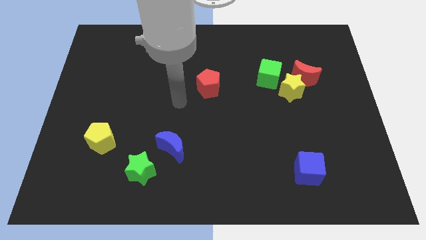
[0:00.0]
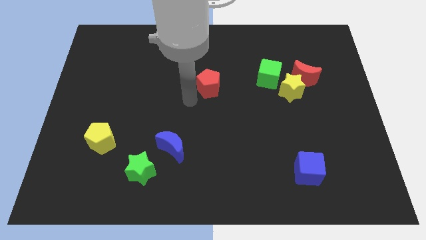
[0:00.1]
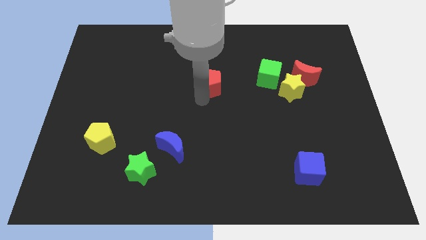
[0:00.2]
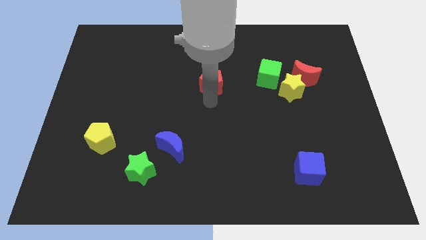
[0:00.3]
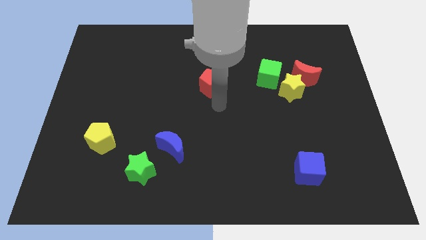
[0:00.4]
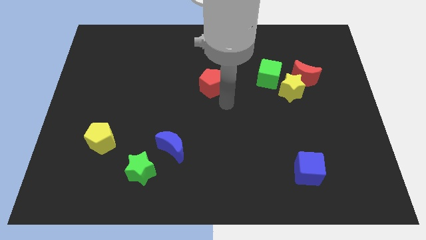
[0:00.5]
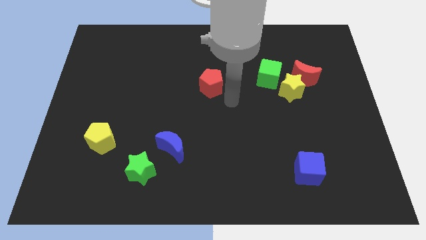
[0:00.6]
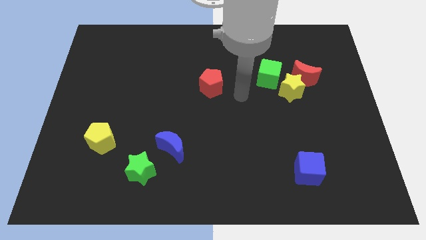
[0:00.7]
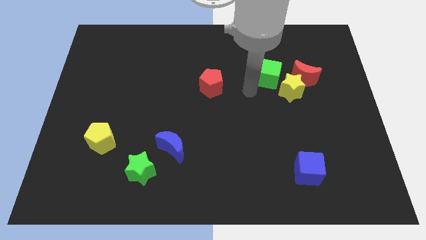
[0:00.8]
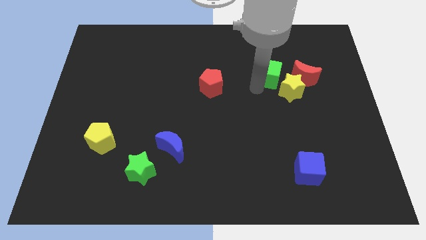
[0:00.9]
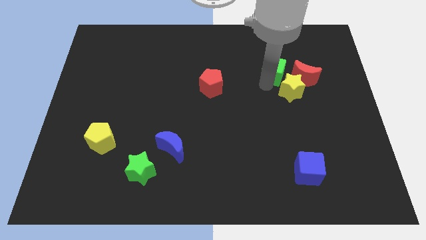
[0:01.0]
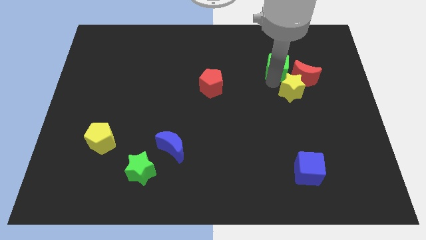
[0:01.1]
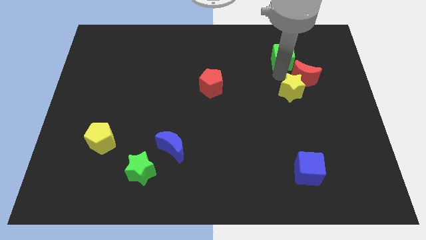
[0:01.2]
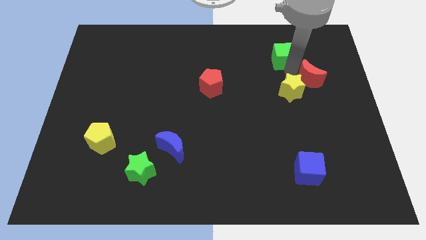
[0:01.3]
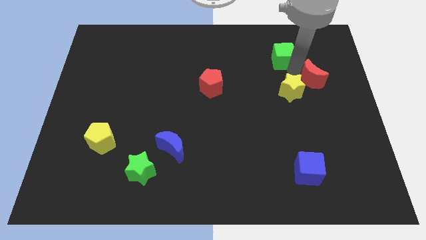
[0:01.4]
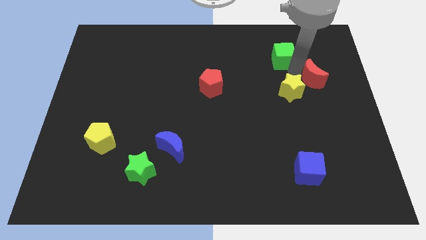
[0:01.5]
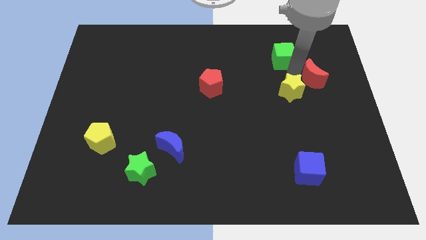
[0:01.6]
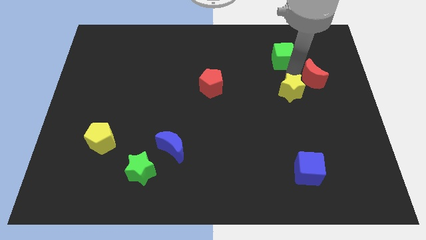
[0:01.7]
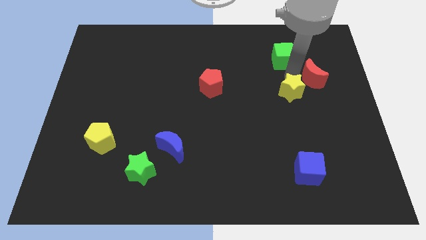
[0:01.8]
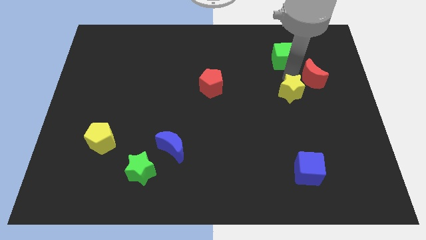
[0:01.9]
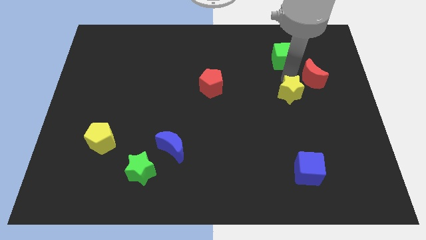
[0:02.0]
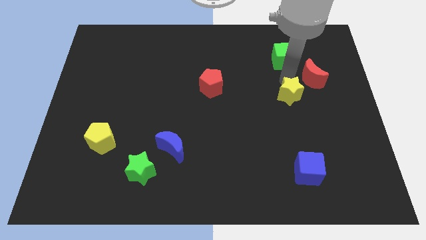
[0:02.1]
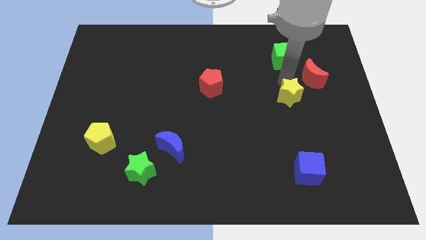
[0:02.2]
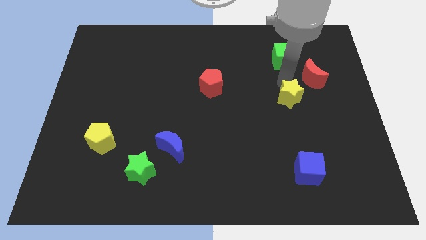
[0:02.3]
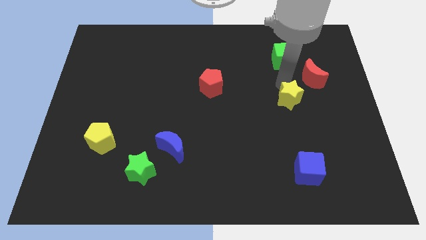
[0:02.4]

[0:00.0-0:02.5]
pull the yellow star apart from the red moon and green cube

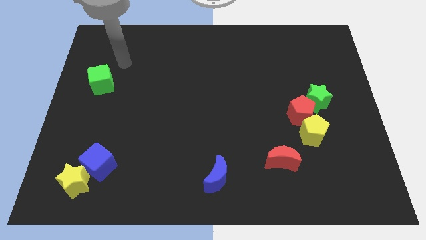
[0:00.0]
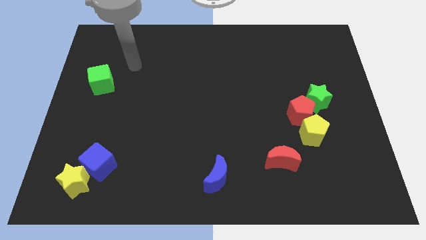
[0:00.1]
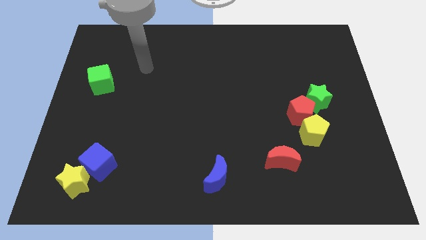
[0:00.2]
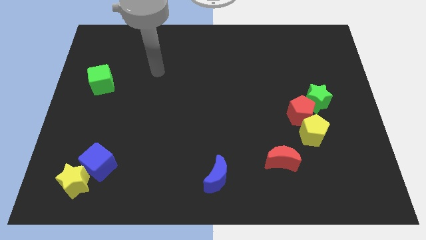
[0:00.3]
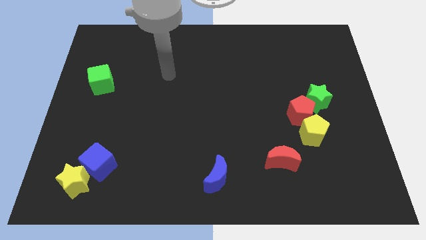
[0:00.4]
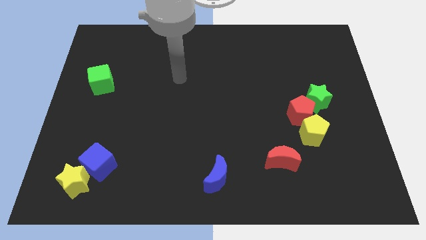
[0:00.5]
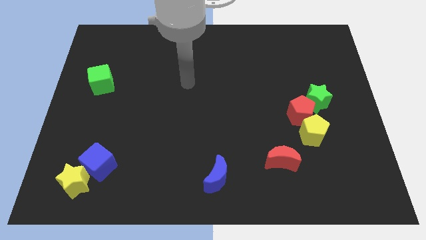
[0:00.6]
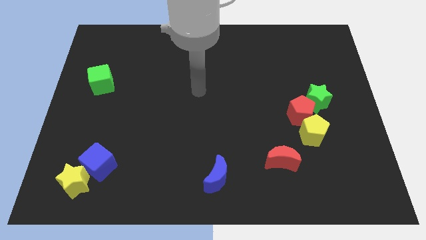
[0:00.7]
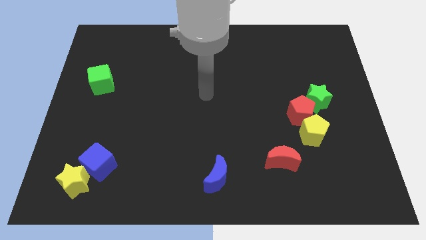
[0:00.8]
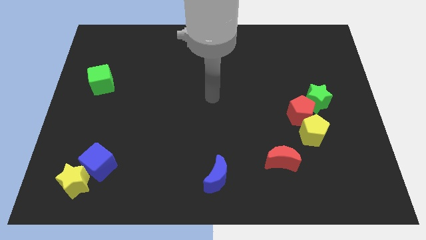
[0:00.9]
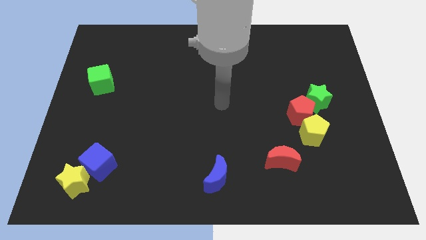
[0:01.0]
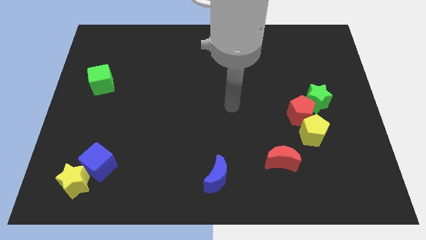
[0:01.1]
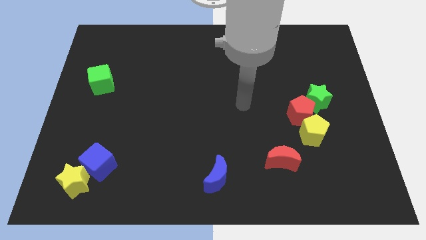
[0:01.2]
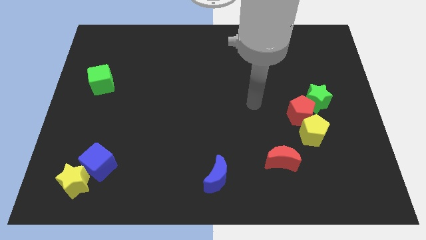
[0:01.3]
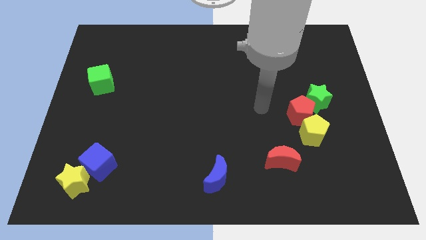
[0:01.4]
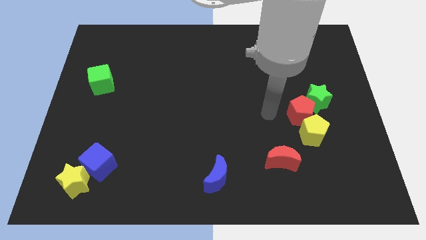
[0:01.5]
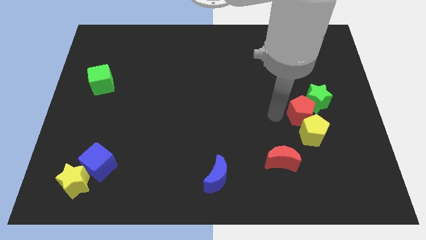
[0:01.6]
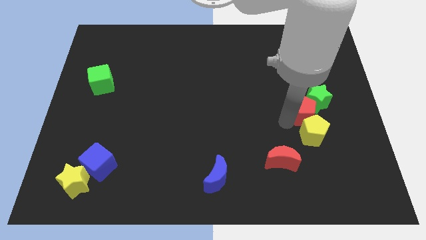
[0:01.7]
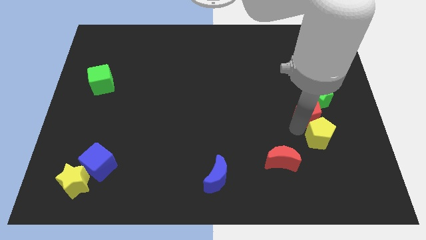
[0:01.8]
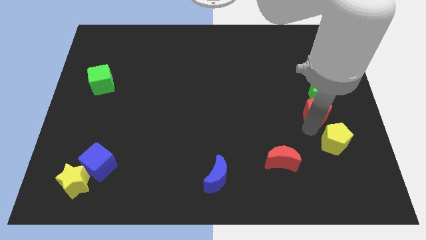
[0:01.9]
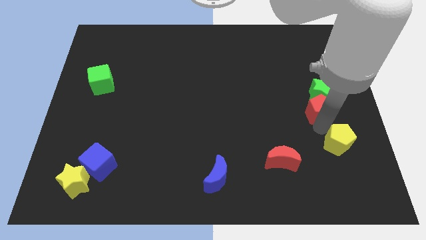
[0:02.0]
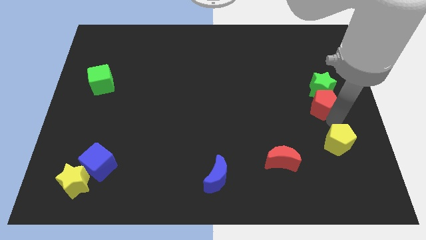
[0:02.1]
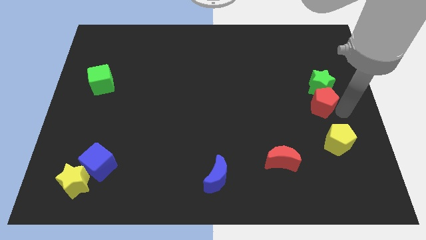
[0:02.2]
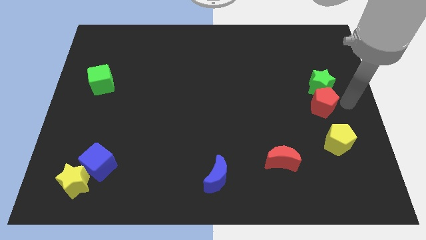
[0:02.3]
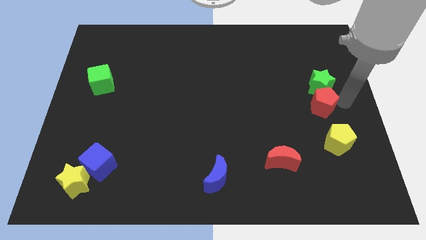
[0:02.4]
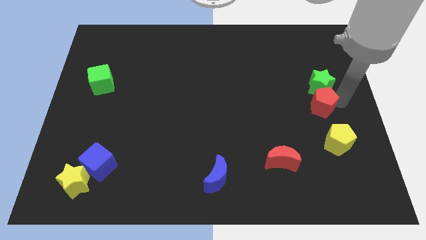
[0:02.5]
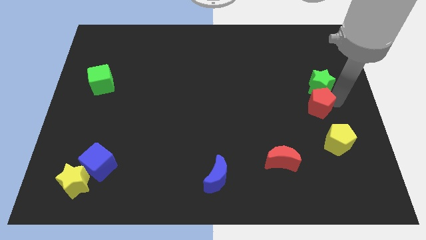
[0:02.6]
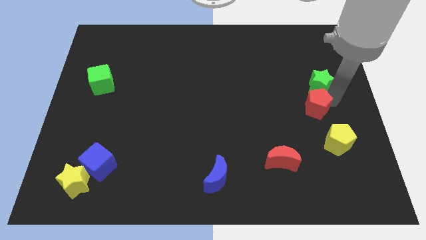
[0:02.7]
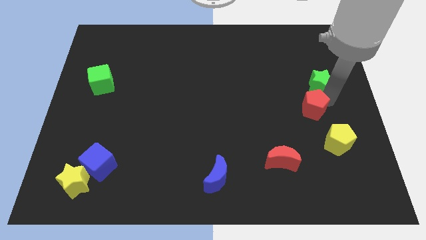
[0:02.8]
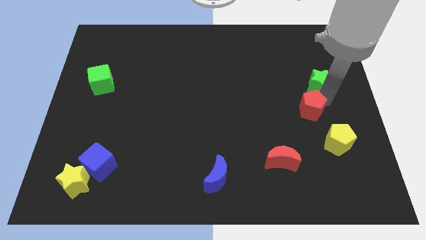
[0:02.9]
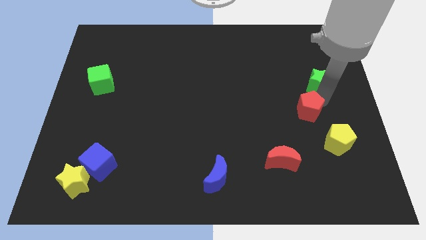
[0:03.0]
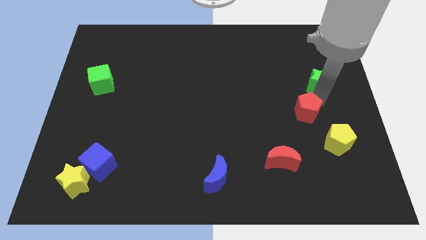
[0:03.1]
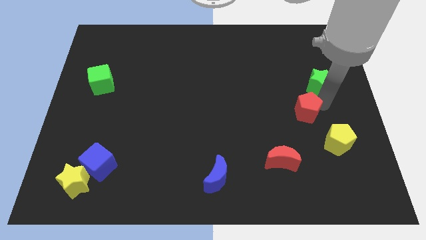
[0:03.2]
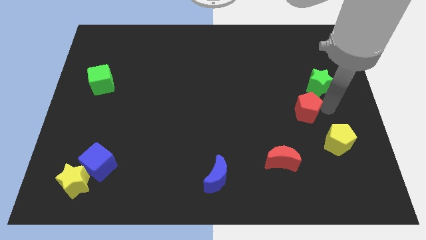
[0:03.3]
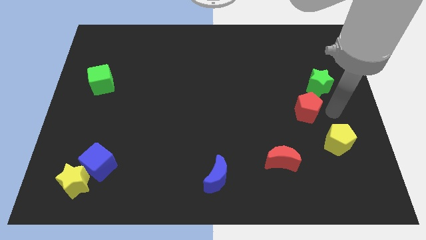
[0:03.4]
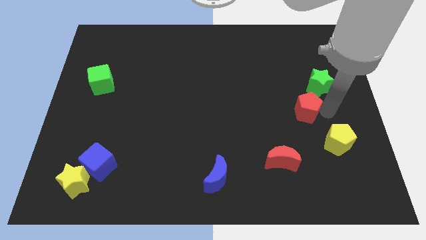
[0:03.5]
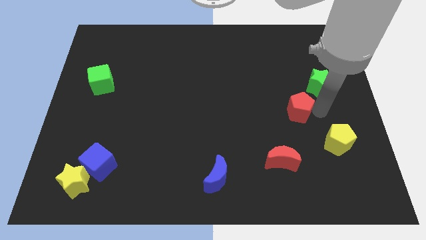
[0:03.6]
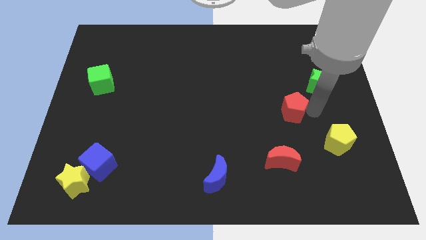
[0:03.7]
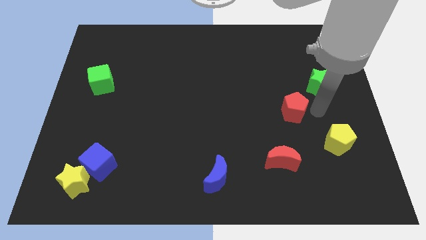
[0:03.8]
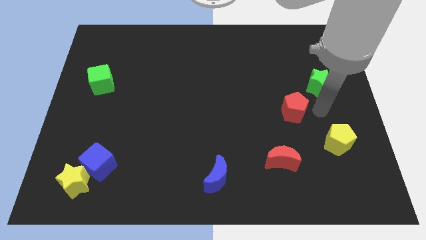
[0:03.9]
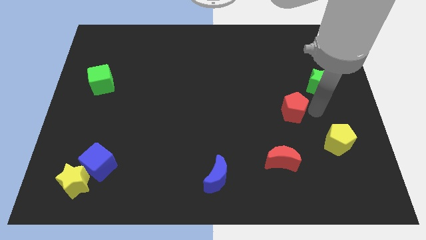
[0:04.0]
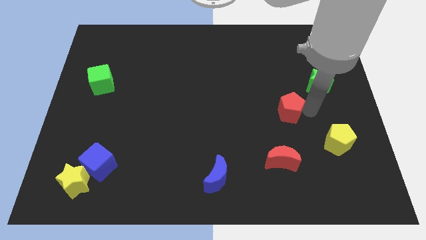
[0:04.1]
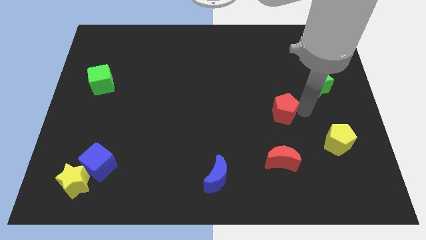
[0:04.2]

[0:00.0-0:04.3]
separate the red pentagon from the yellow pentagon and green star

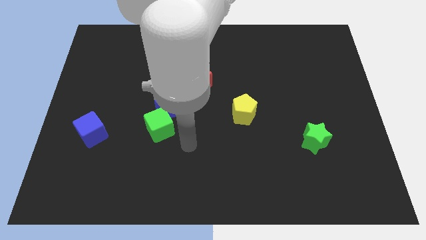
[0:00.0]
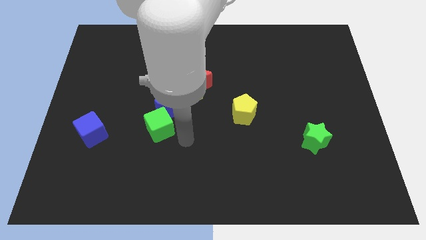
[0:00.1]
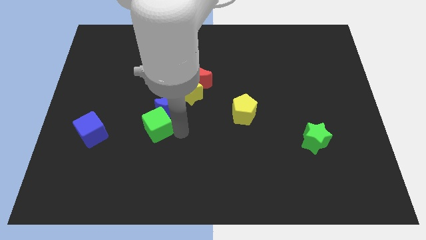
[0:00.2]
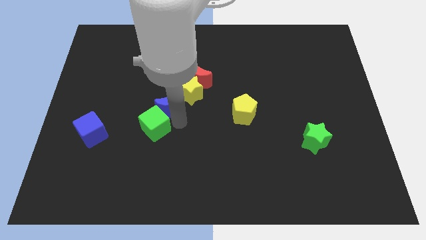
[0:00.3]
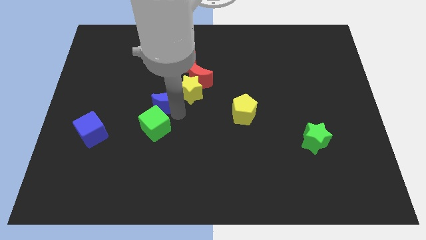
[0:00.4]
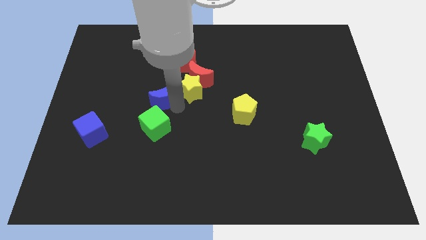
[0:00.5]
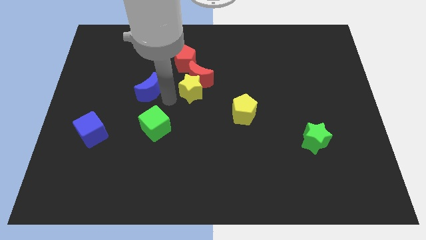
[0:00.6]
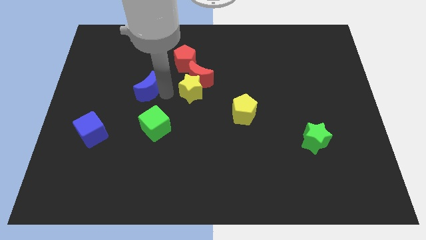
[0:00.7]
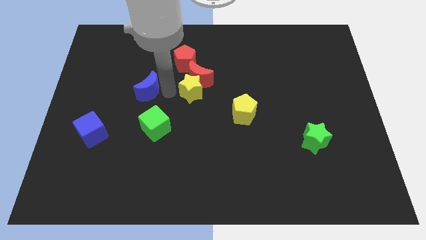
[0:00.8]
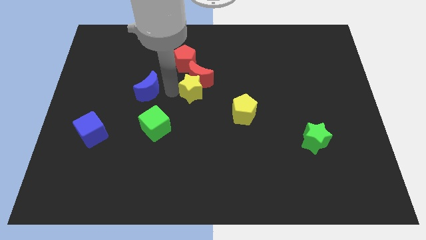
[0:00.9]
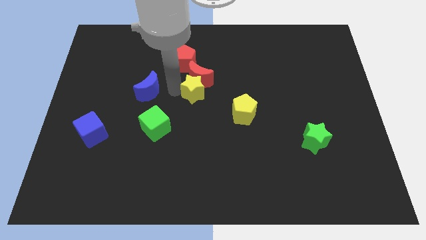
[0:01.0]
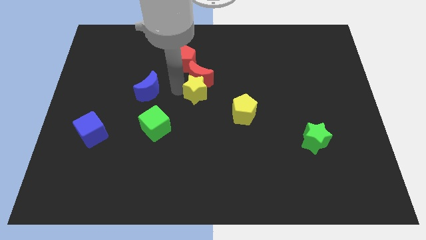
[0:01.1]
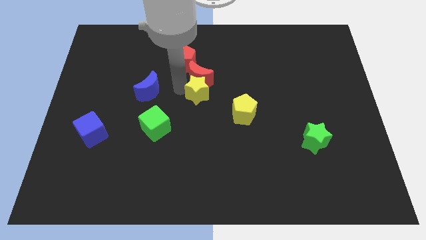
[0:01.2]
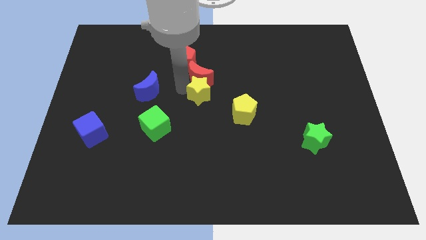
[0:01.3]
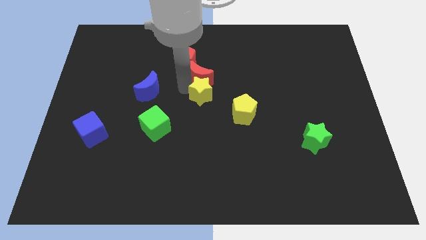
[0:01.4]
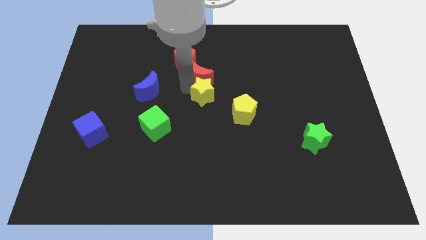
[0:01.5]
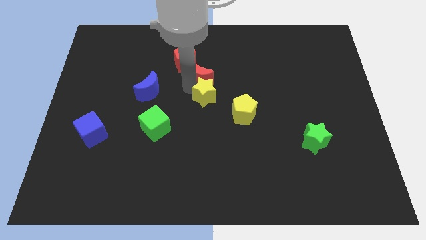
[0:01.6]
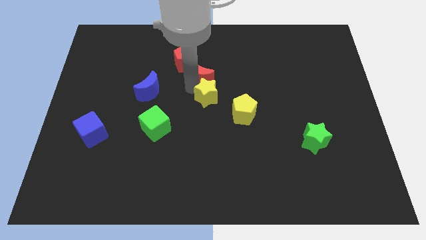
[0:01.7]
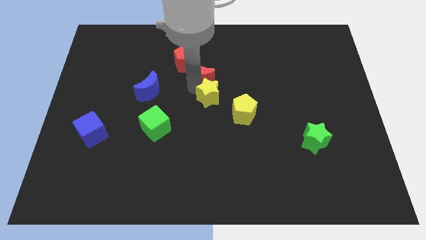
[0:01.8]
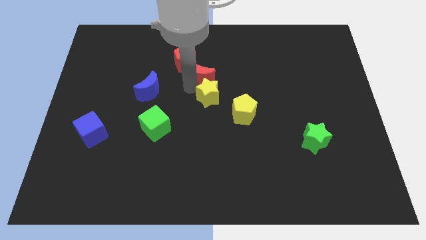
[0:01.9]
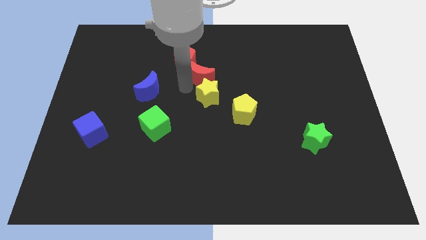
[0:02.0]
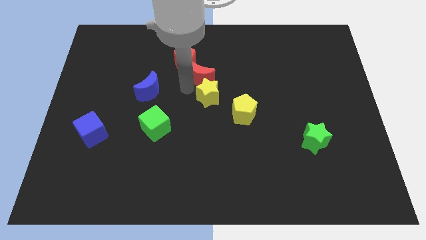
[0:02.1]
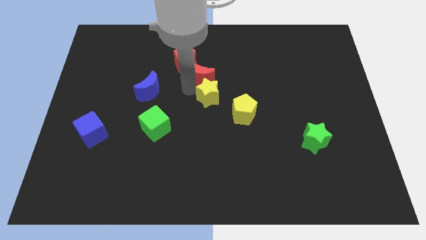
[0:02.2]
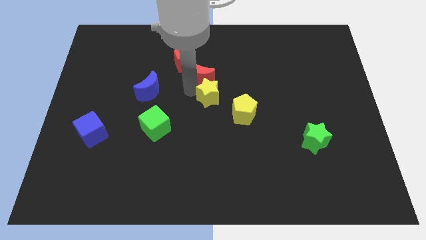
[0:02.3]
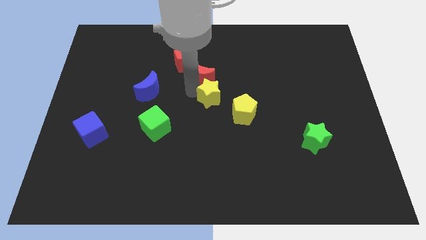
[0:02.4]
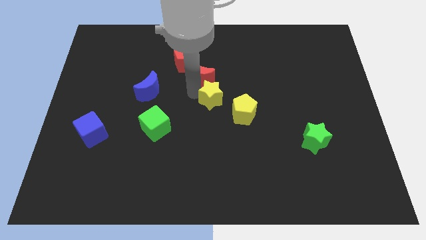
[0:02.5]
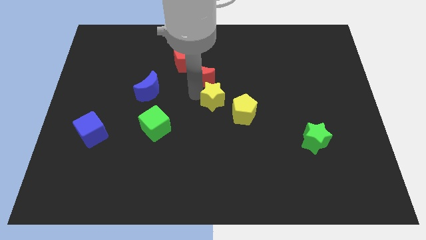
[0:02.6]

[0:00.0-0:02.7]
pull the yellow star apart from the red moon and blue moon
